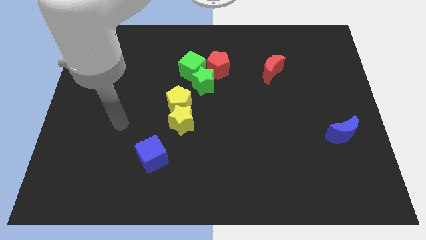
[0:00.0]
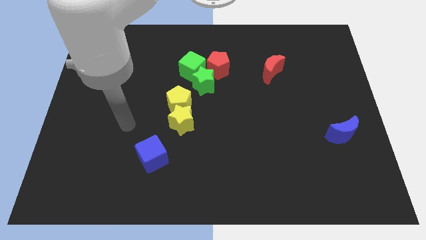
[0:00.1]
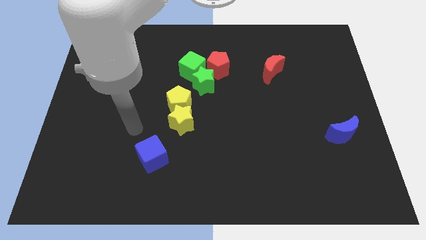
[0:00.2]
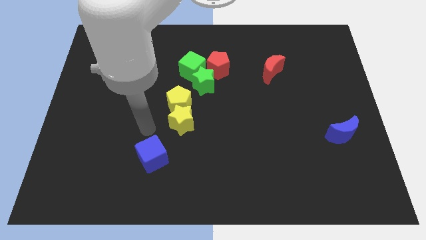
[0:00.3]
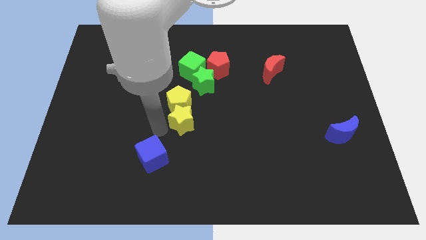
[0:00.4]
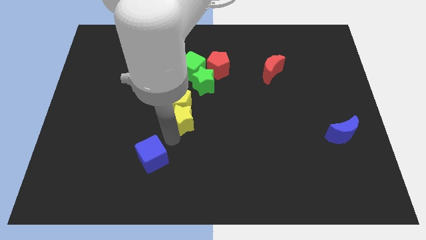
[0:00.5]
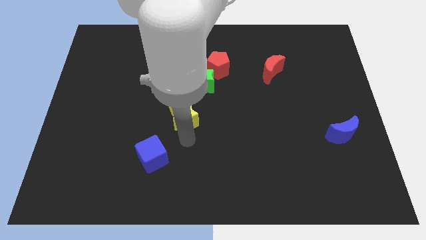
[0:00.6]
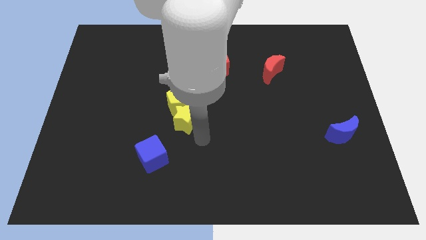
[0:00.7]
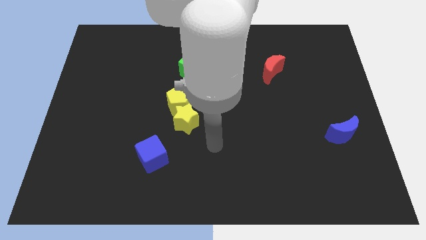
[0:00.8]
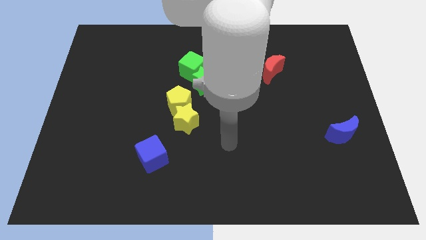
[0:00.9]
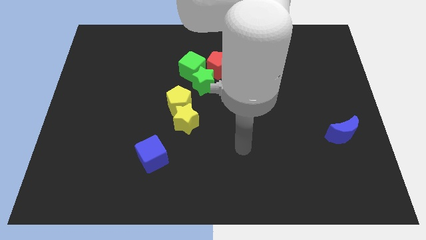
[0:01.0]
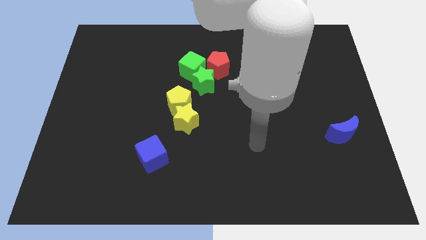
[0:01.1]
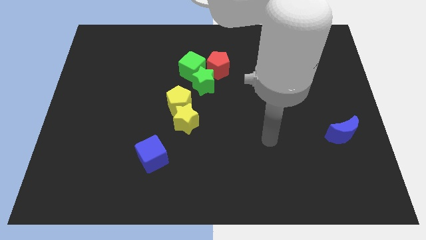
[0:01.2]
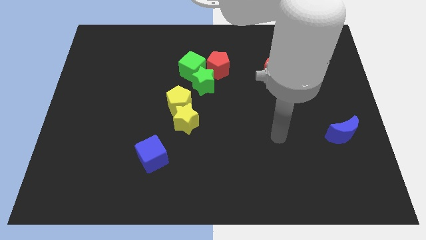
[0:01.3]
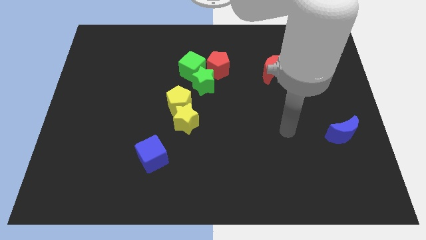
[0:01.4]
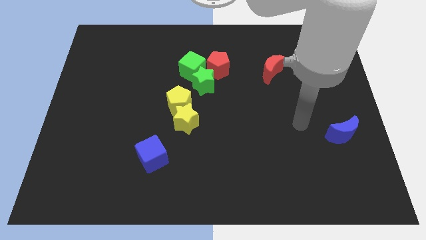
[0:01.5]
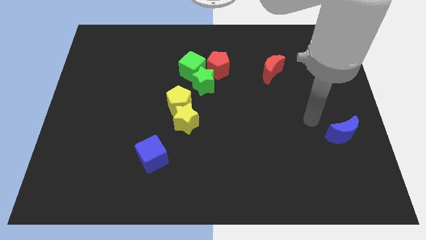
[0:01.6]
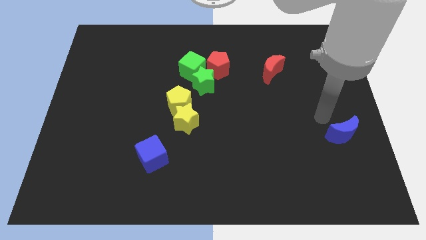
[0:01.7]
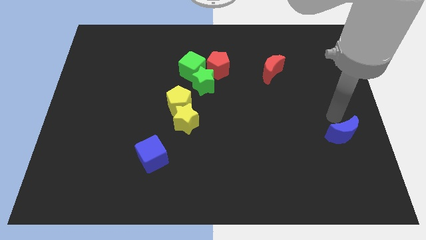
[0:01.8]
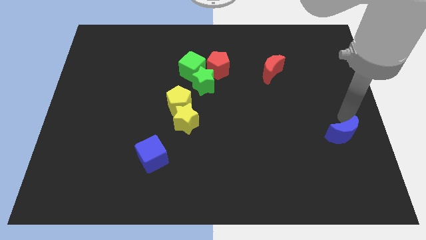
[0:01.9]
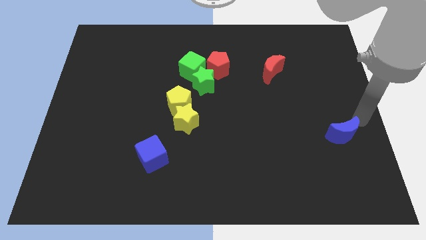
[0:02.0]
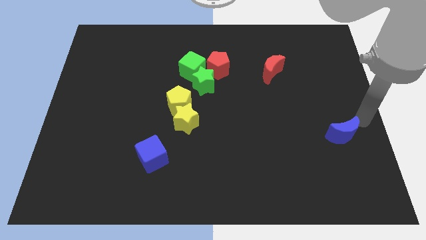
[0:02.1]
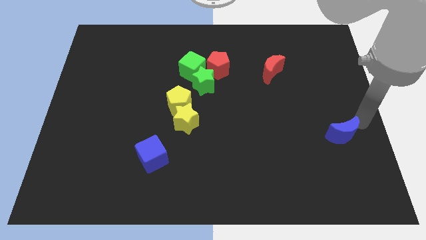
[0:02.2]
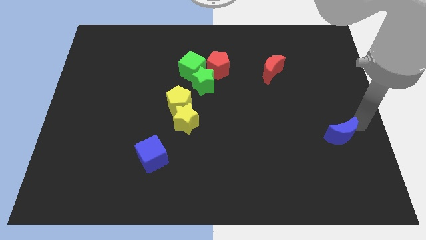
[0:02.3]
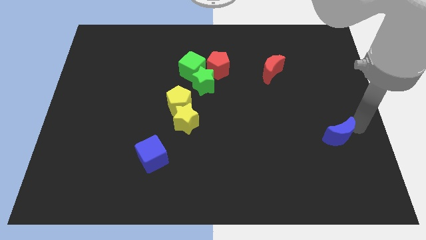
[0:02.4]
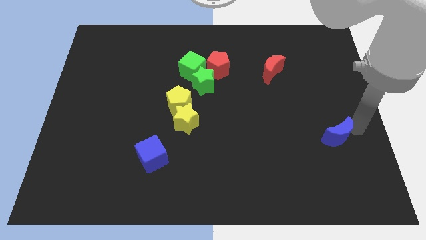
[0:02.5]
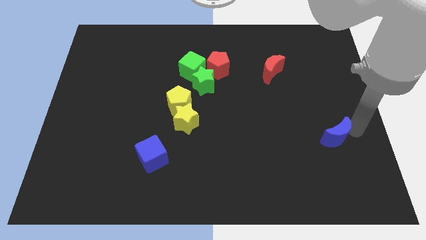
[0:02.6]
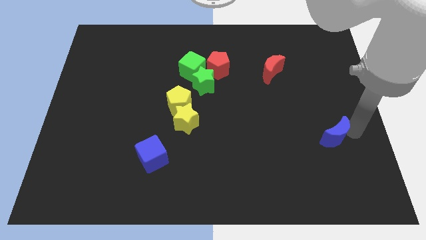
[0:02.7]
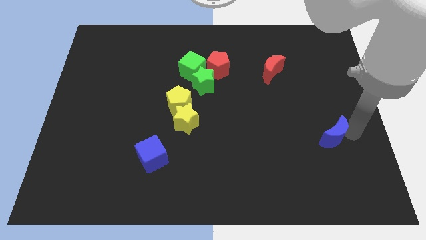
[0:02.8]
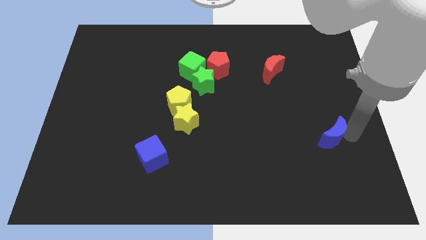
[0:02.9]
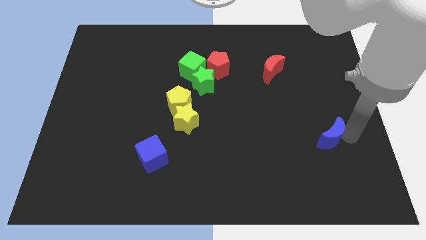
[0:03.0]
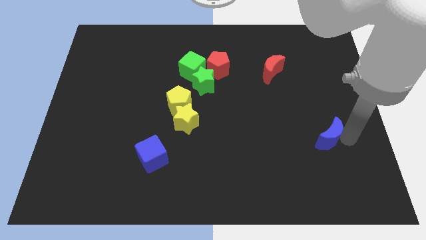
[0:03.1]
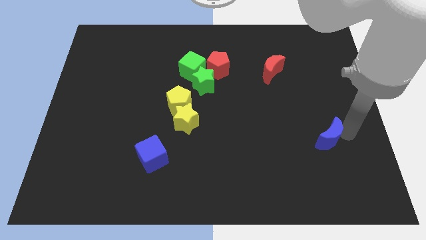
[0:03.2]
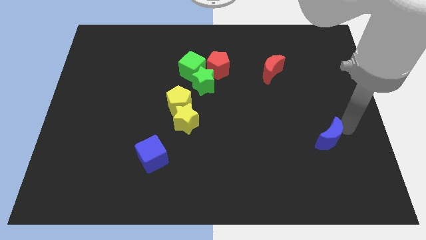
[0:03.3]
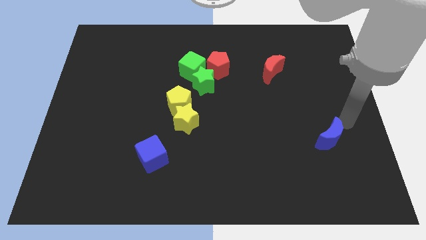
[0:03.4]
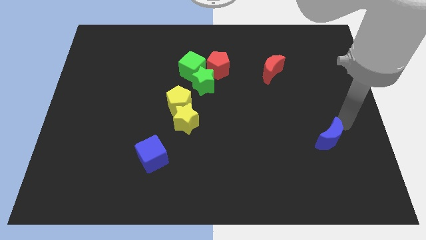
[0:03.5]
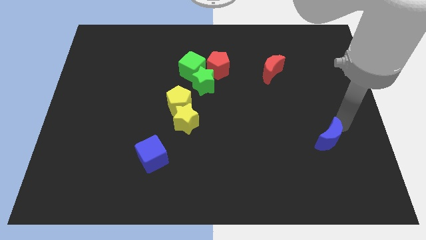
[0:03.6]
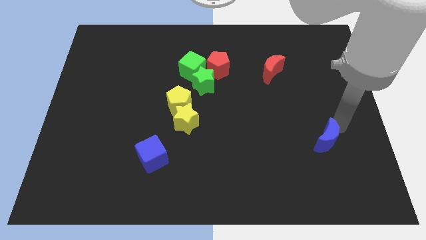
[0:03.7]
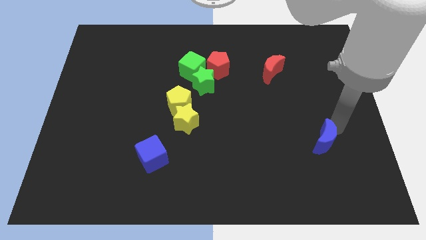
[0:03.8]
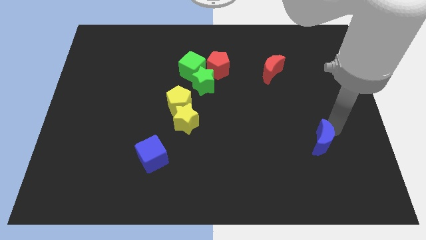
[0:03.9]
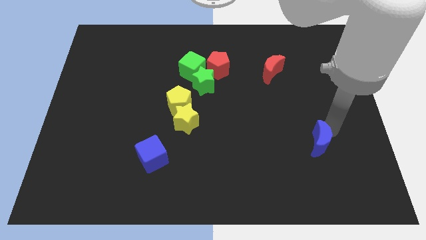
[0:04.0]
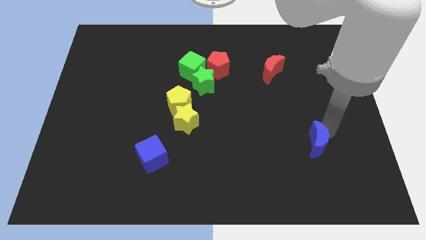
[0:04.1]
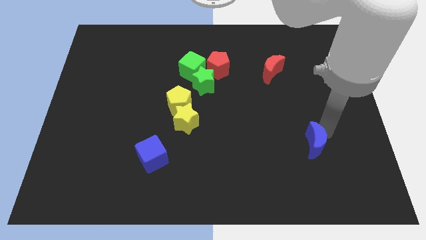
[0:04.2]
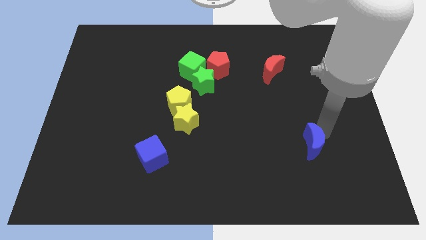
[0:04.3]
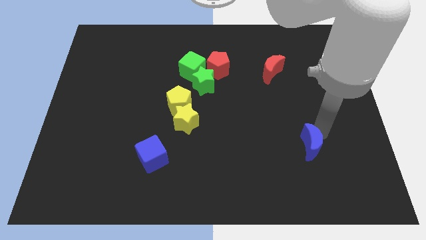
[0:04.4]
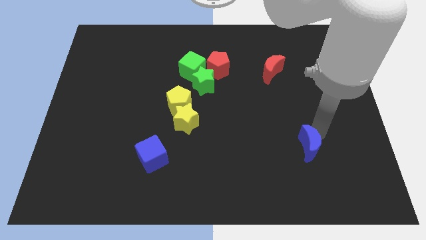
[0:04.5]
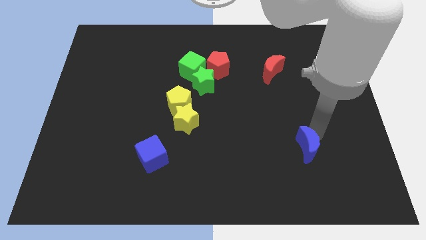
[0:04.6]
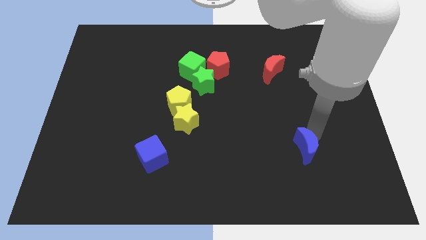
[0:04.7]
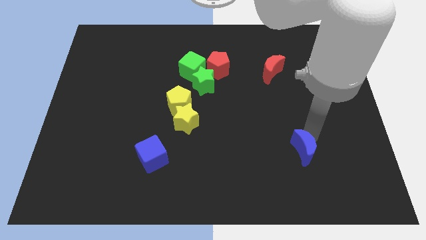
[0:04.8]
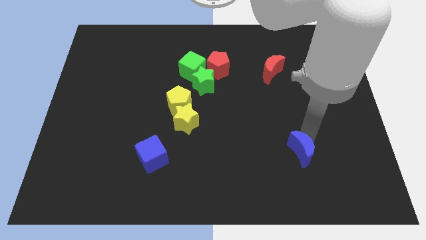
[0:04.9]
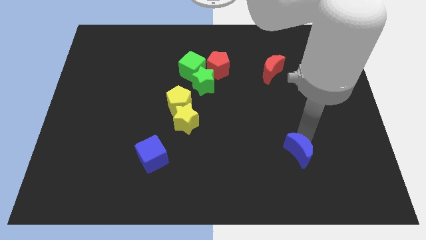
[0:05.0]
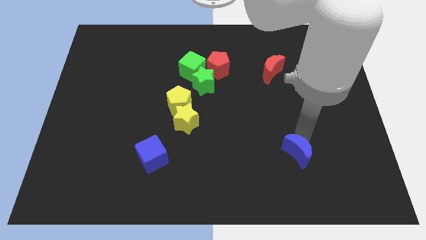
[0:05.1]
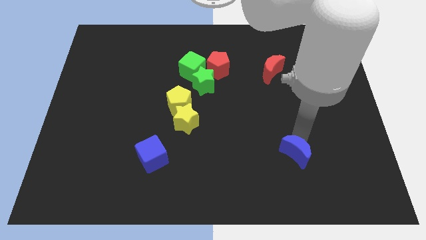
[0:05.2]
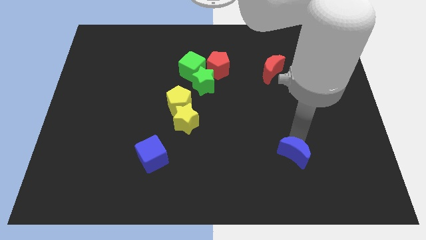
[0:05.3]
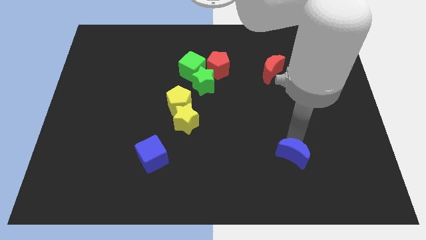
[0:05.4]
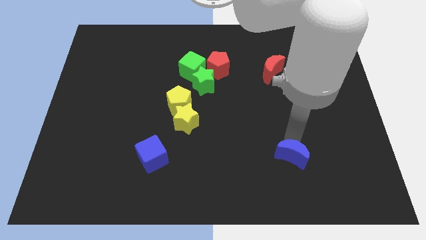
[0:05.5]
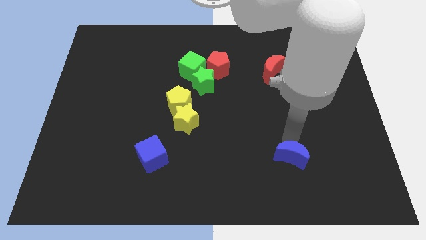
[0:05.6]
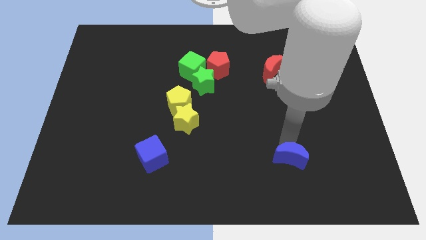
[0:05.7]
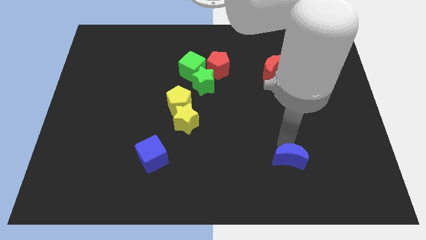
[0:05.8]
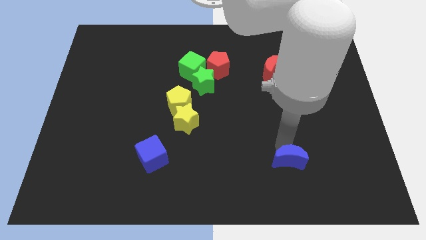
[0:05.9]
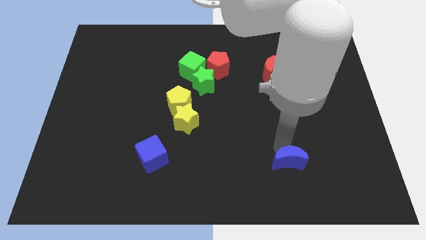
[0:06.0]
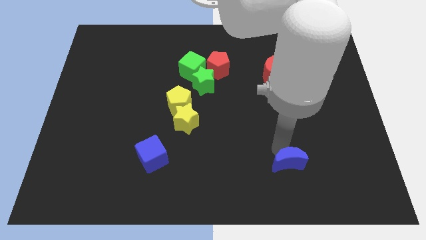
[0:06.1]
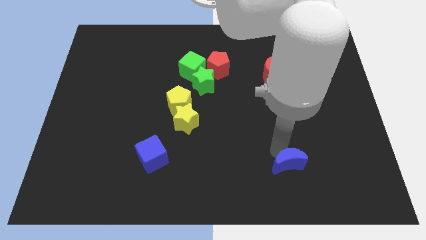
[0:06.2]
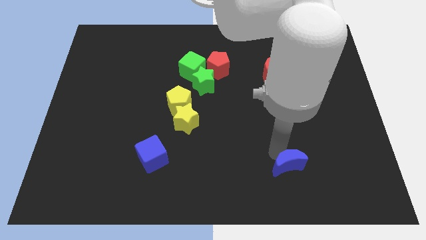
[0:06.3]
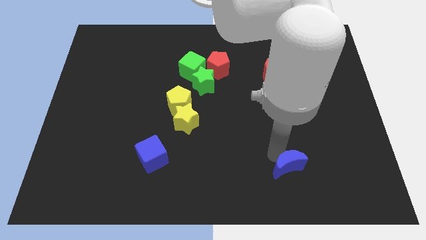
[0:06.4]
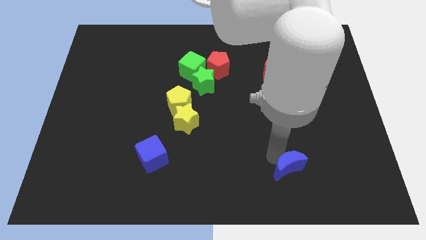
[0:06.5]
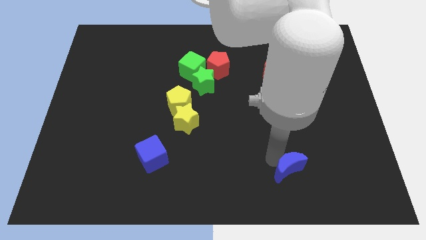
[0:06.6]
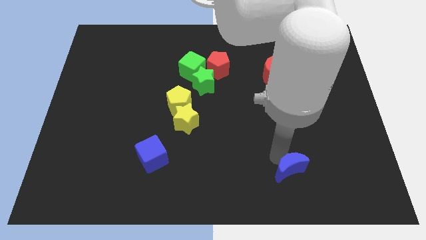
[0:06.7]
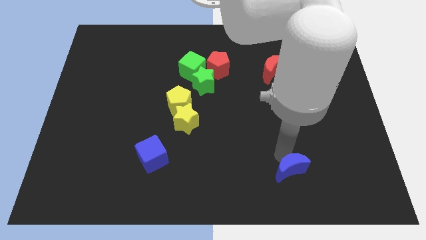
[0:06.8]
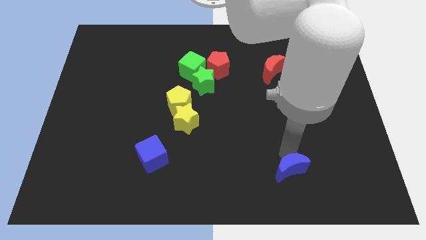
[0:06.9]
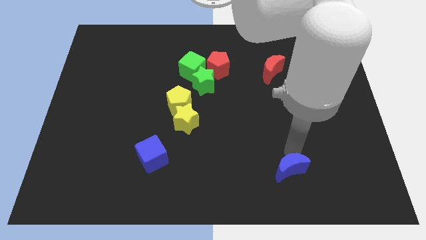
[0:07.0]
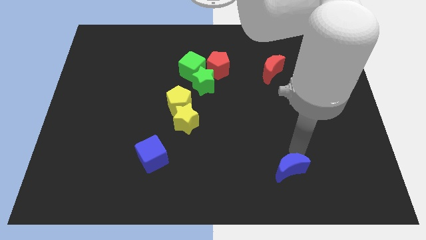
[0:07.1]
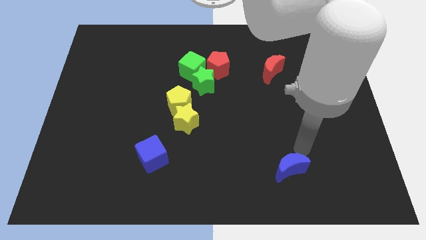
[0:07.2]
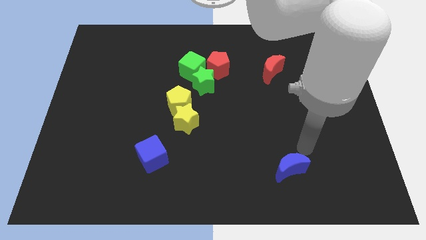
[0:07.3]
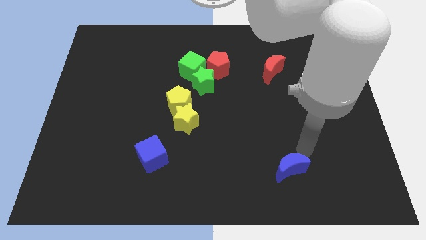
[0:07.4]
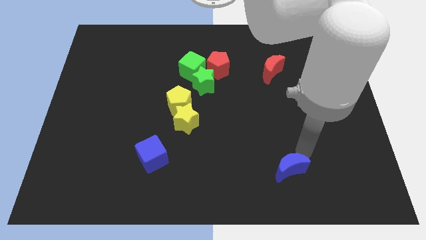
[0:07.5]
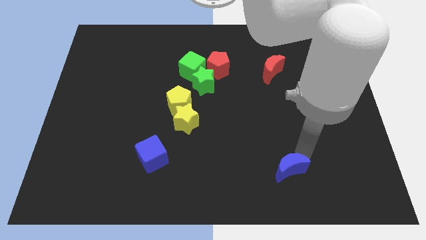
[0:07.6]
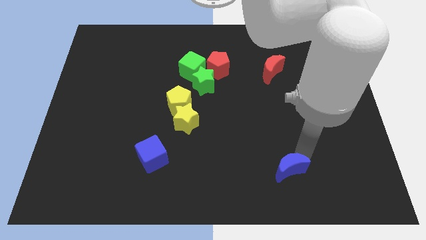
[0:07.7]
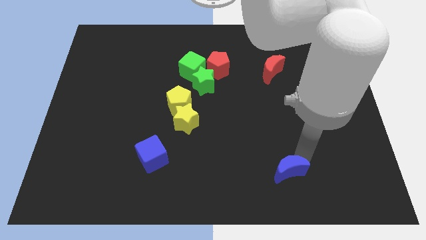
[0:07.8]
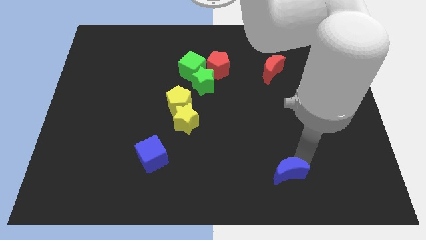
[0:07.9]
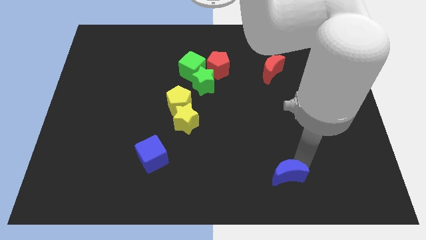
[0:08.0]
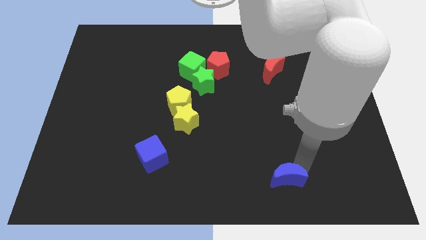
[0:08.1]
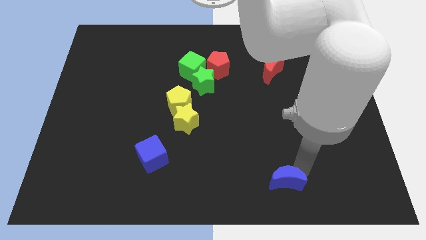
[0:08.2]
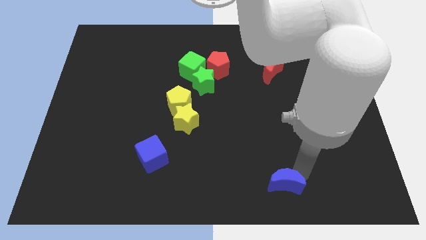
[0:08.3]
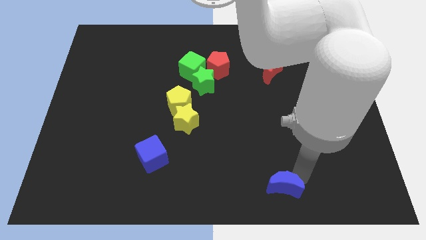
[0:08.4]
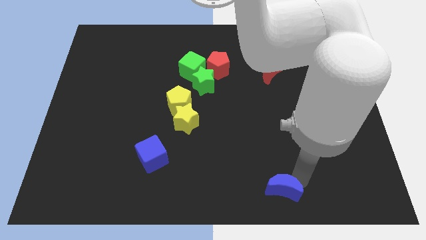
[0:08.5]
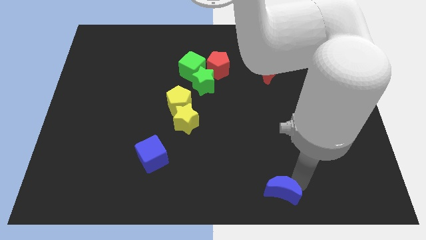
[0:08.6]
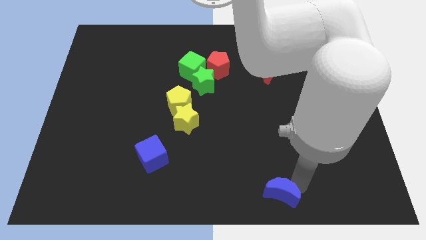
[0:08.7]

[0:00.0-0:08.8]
put the blue moon to the bottom side
